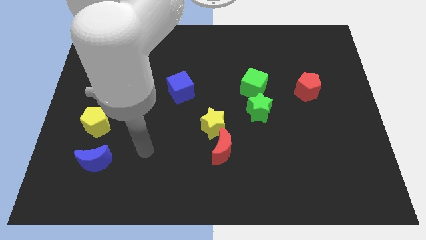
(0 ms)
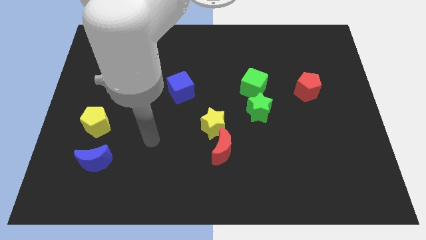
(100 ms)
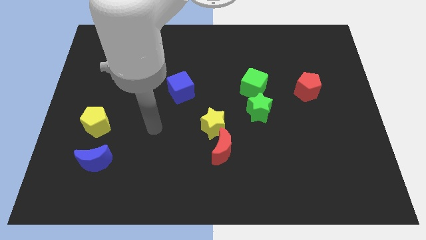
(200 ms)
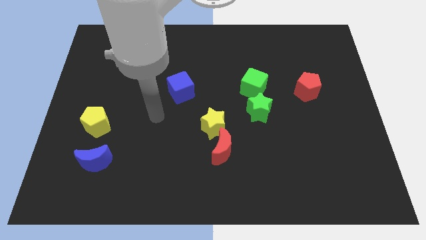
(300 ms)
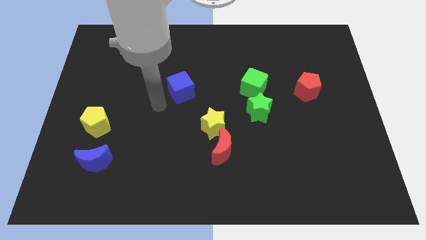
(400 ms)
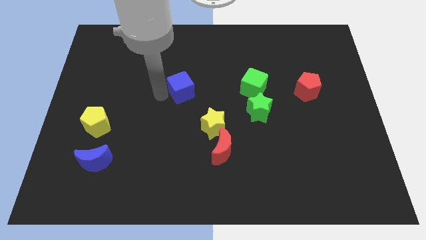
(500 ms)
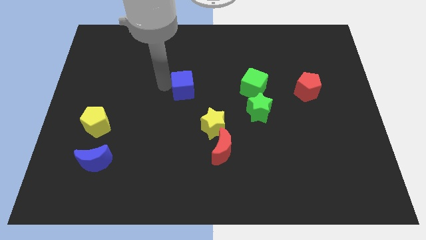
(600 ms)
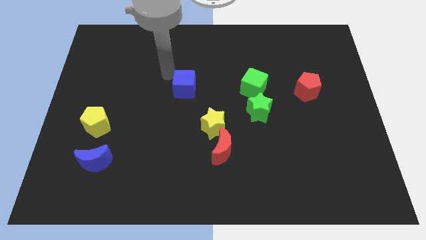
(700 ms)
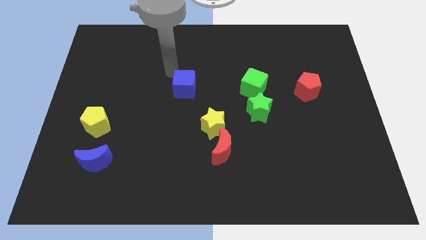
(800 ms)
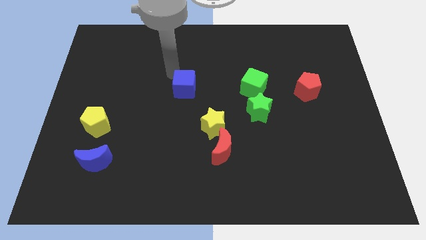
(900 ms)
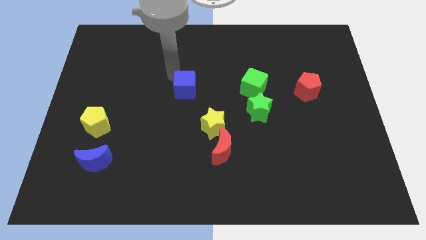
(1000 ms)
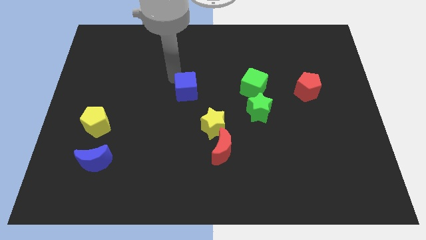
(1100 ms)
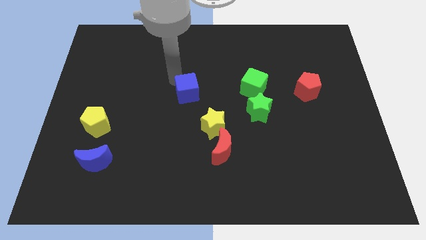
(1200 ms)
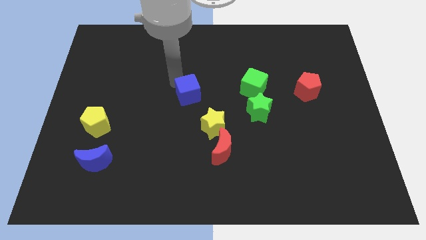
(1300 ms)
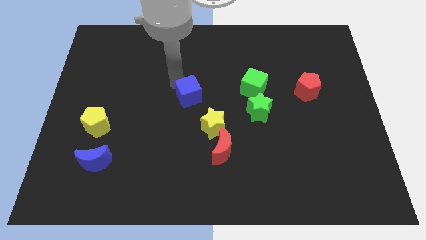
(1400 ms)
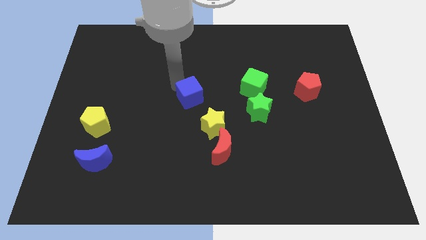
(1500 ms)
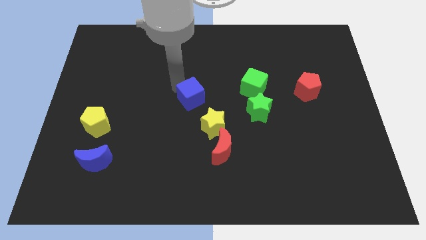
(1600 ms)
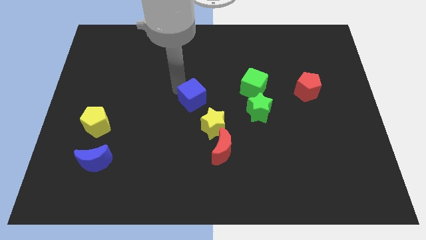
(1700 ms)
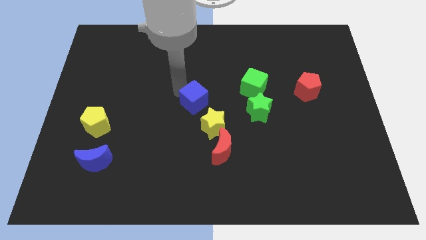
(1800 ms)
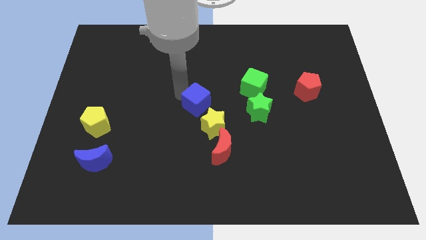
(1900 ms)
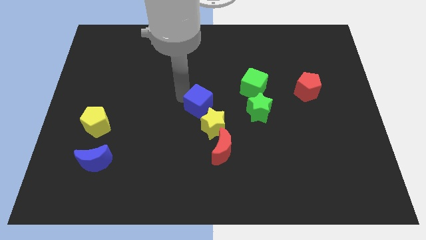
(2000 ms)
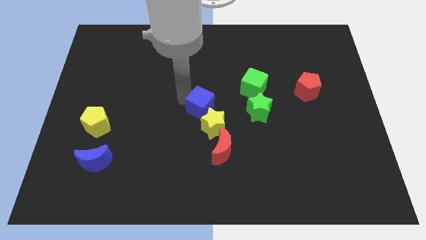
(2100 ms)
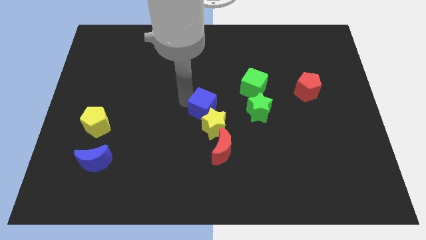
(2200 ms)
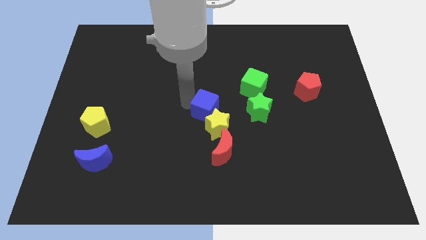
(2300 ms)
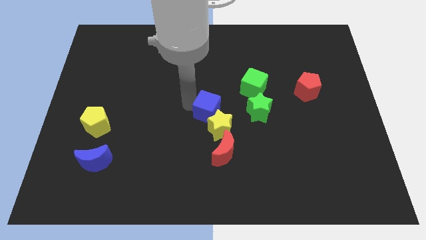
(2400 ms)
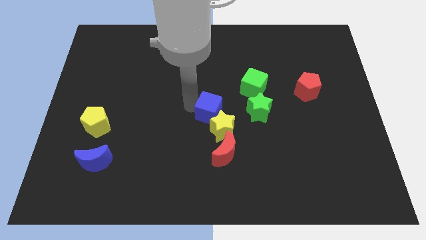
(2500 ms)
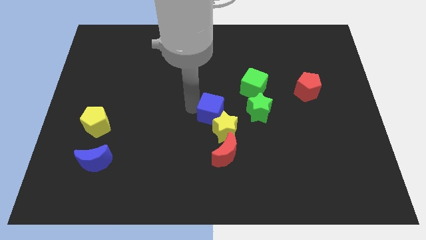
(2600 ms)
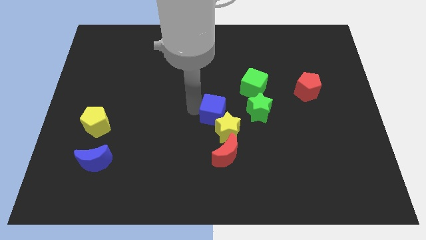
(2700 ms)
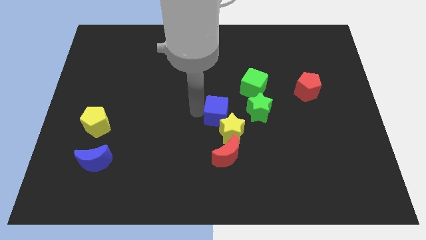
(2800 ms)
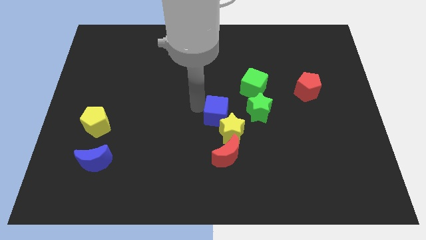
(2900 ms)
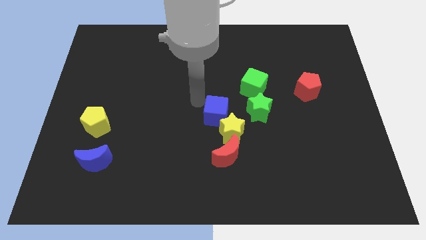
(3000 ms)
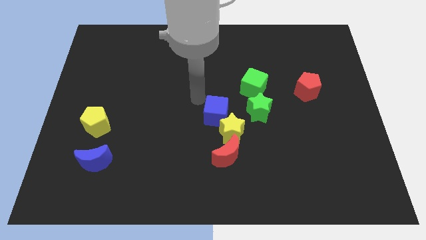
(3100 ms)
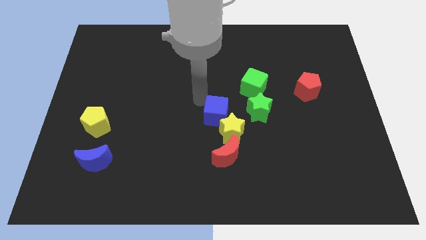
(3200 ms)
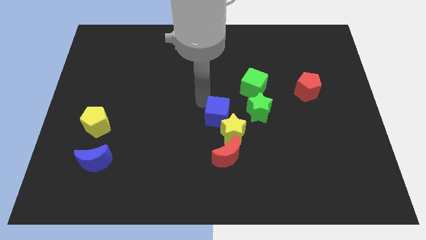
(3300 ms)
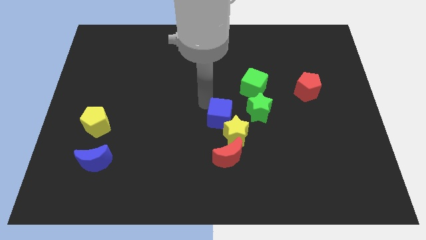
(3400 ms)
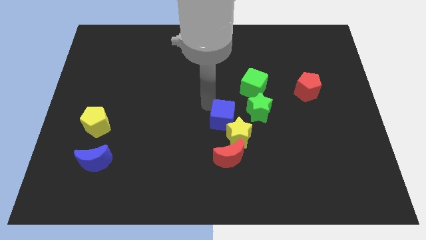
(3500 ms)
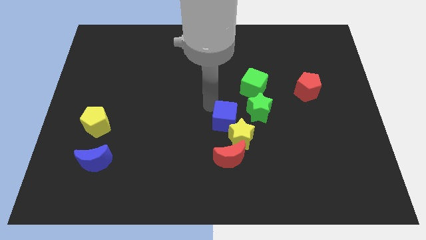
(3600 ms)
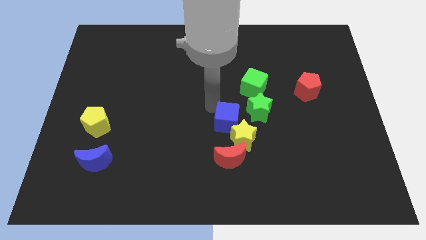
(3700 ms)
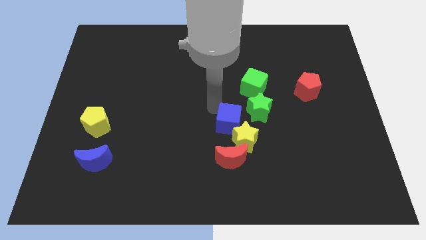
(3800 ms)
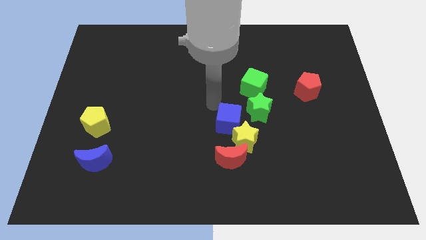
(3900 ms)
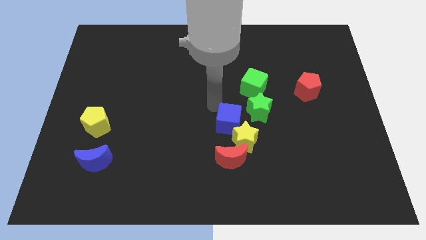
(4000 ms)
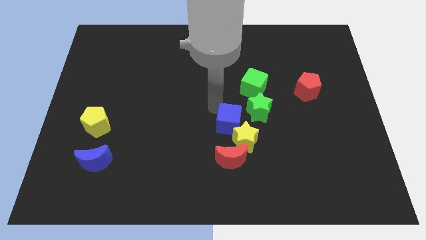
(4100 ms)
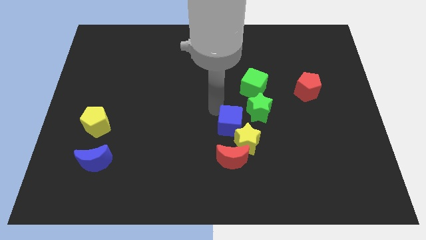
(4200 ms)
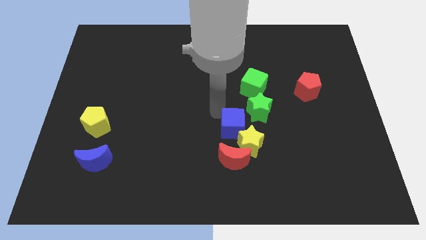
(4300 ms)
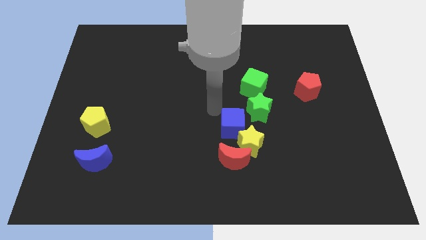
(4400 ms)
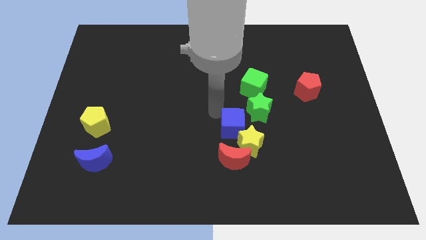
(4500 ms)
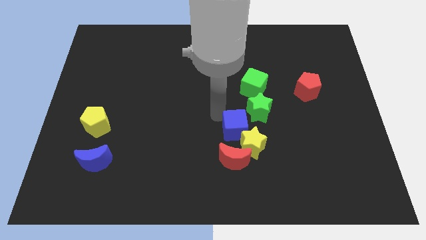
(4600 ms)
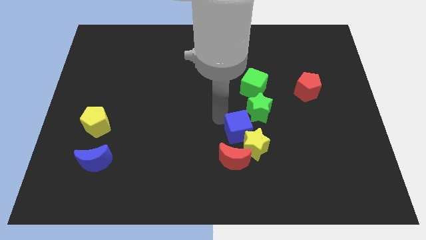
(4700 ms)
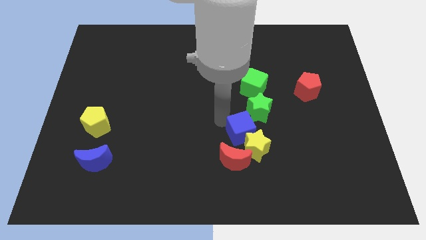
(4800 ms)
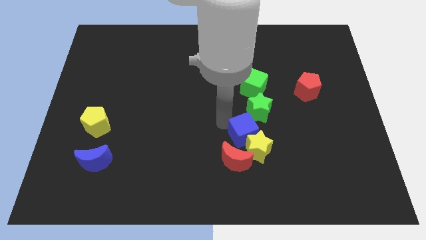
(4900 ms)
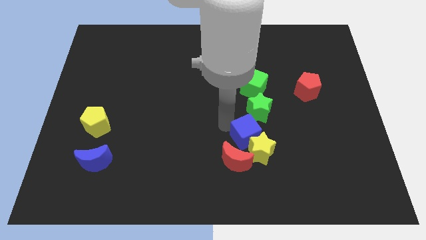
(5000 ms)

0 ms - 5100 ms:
move the blue cube downwards and then right

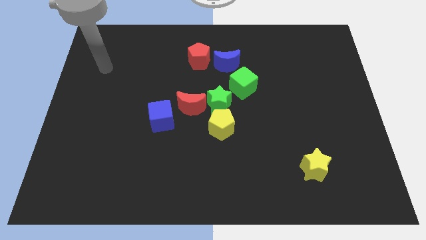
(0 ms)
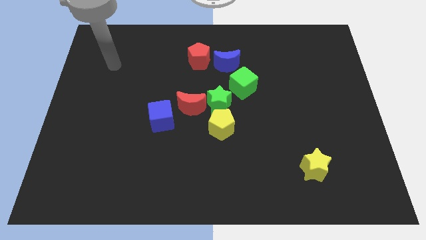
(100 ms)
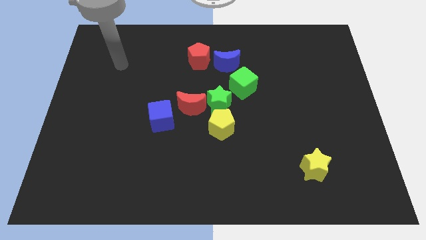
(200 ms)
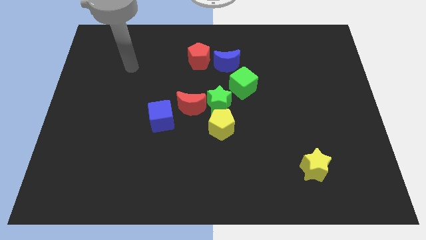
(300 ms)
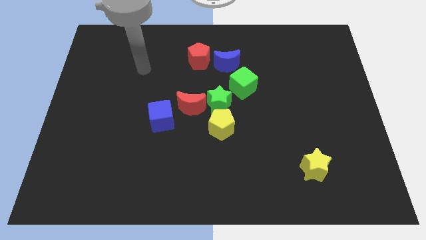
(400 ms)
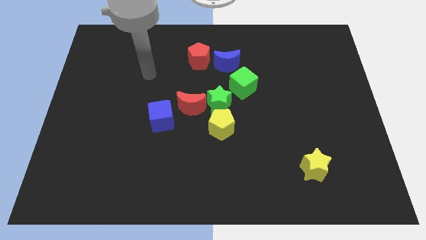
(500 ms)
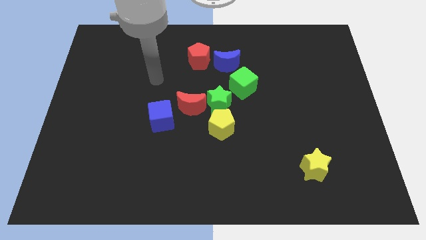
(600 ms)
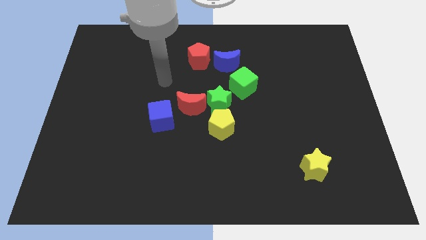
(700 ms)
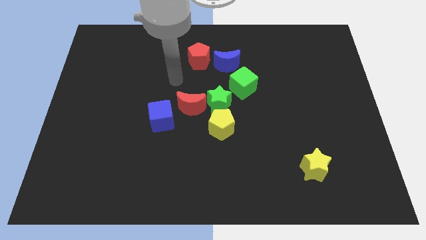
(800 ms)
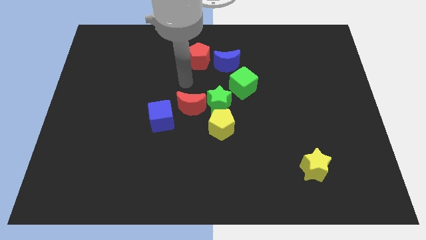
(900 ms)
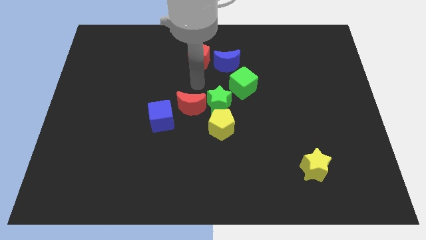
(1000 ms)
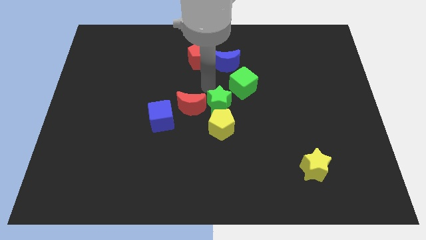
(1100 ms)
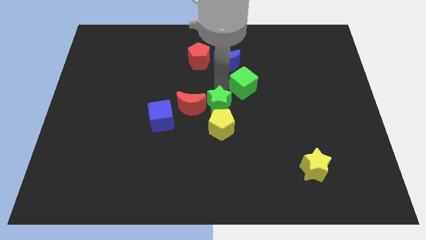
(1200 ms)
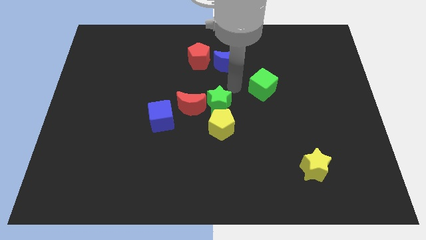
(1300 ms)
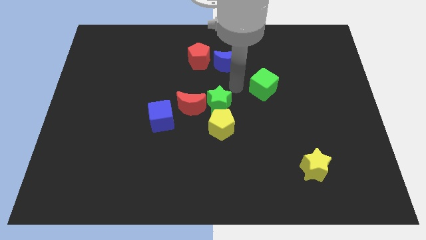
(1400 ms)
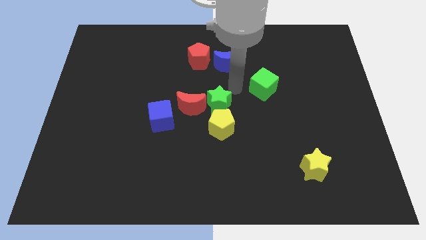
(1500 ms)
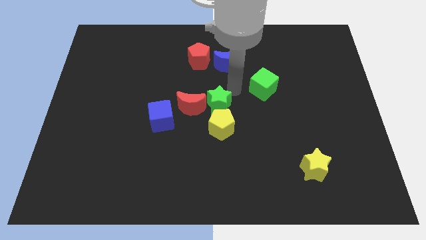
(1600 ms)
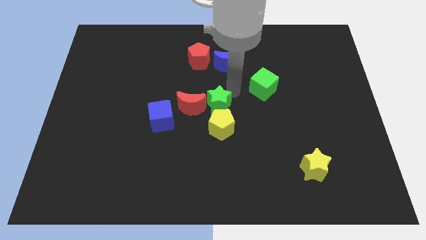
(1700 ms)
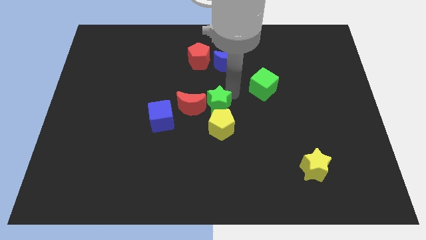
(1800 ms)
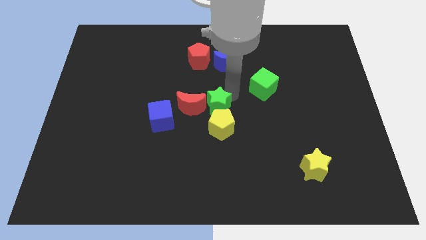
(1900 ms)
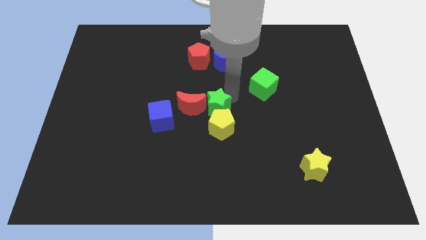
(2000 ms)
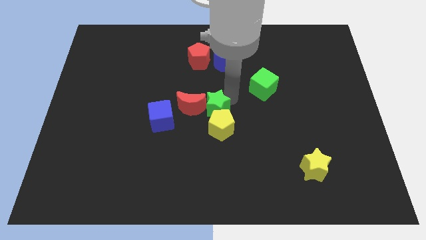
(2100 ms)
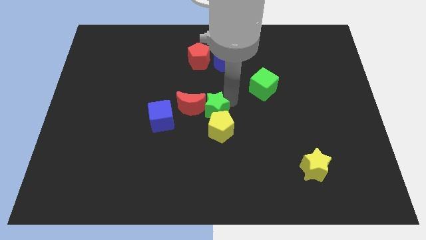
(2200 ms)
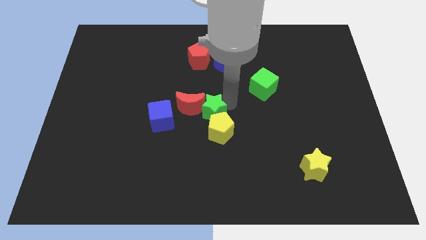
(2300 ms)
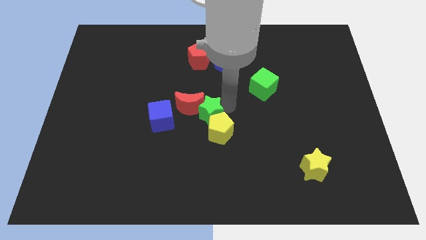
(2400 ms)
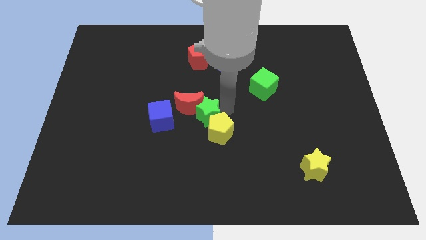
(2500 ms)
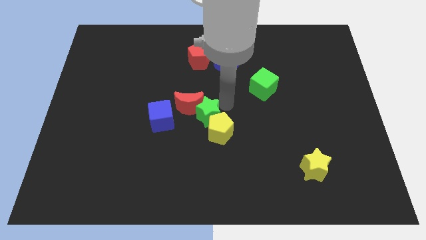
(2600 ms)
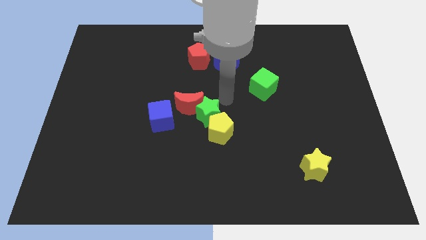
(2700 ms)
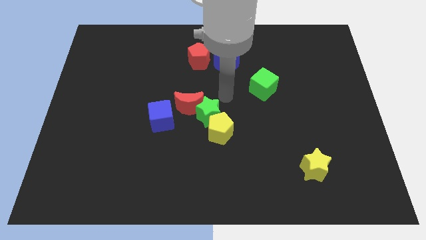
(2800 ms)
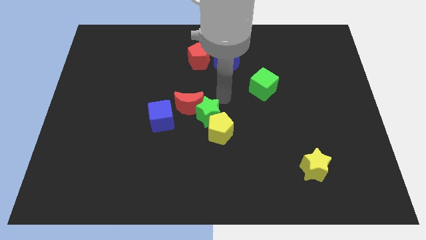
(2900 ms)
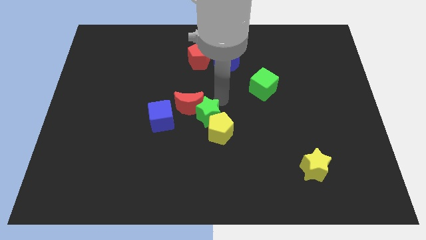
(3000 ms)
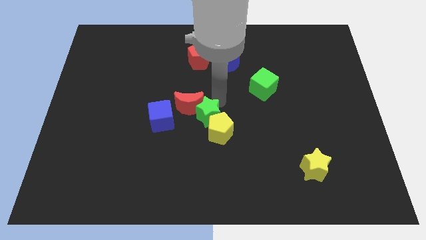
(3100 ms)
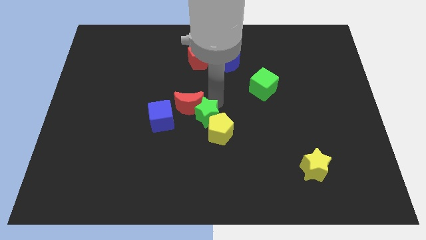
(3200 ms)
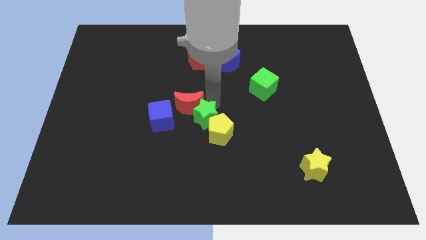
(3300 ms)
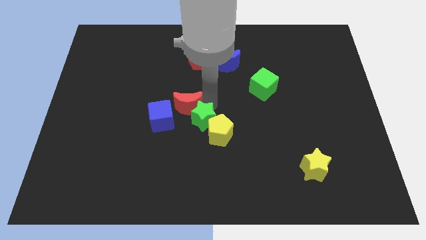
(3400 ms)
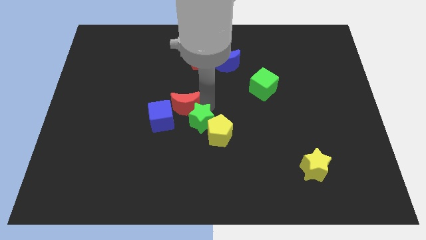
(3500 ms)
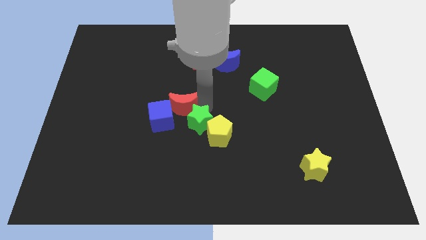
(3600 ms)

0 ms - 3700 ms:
slightly move the green star down and then to the left
